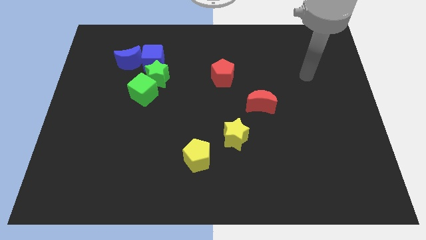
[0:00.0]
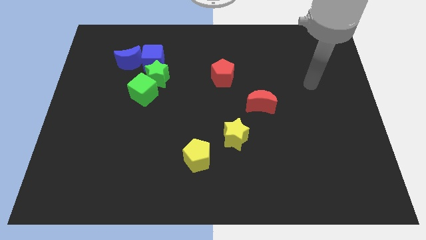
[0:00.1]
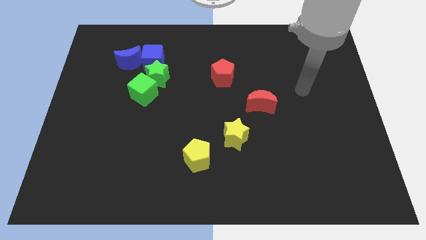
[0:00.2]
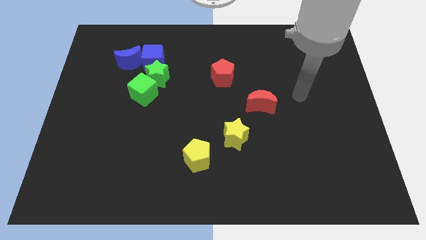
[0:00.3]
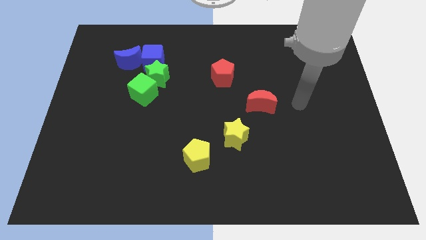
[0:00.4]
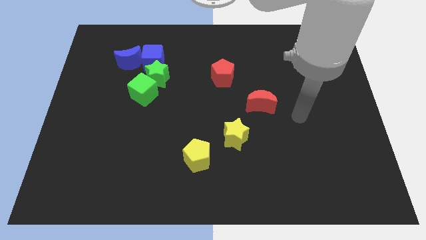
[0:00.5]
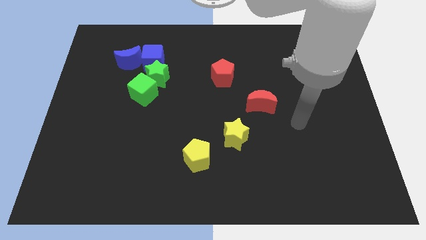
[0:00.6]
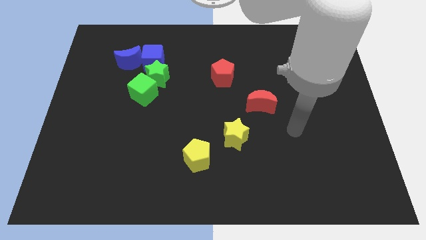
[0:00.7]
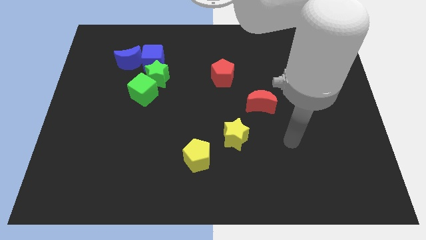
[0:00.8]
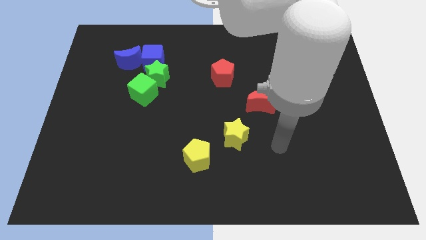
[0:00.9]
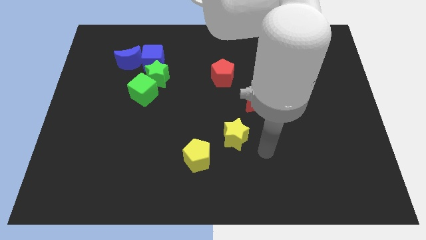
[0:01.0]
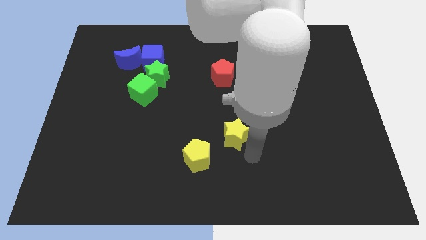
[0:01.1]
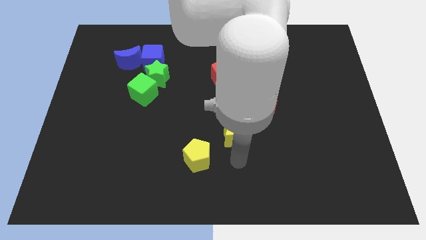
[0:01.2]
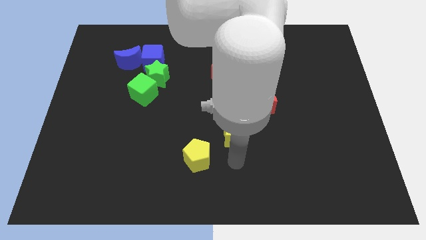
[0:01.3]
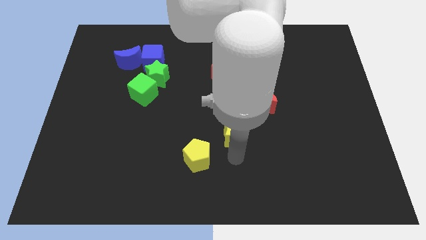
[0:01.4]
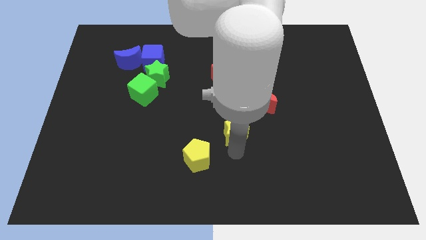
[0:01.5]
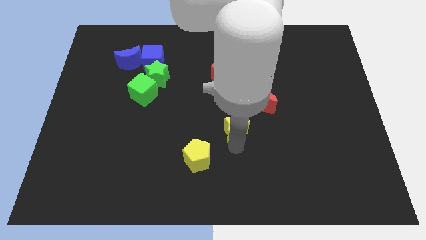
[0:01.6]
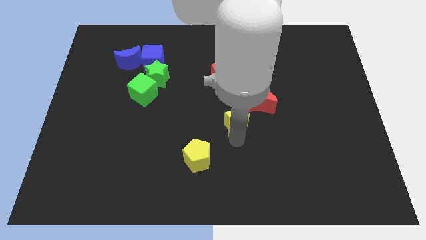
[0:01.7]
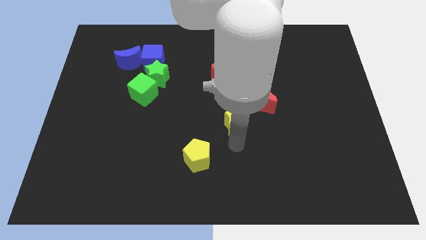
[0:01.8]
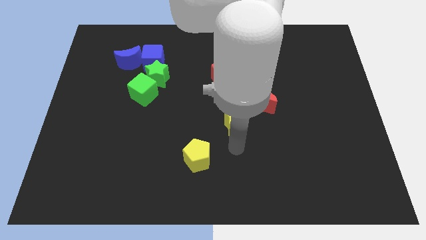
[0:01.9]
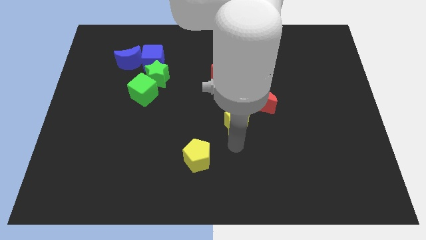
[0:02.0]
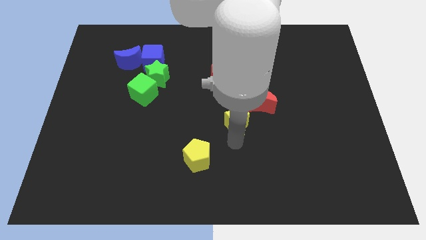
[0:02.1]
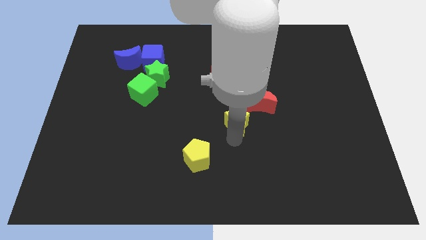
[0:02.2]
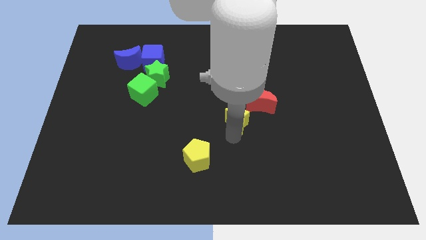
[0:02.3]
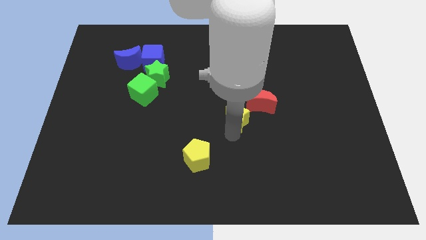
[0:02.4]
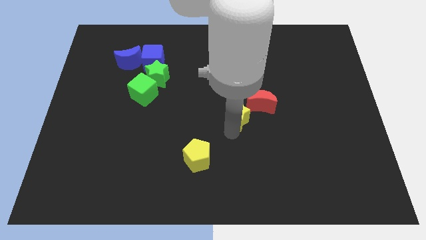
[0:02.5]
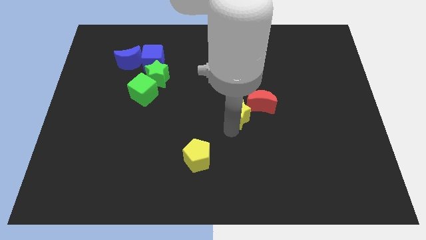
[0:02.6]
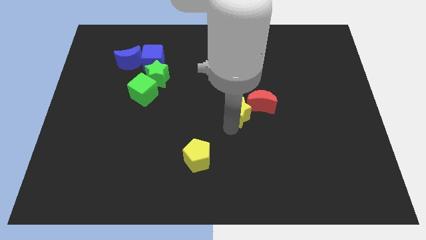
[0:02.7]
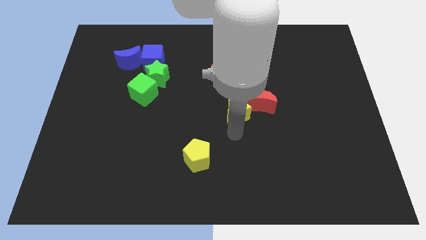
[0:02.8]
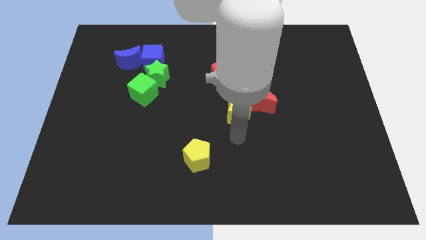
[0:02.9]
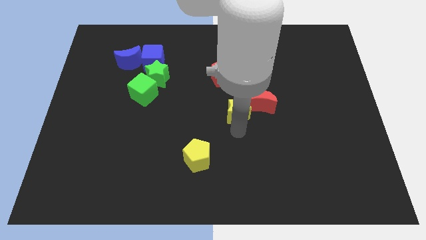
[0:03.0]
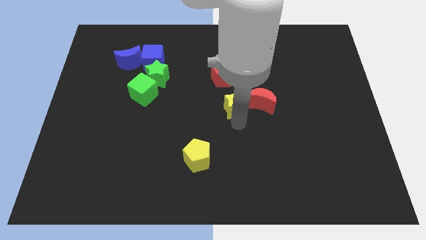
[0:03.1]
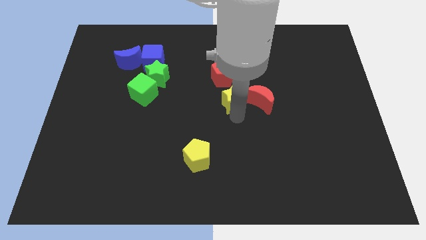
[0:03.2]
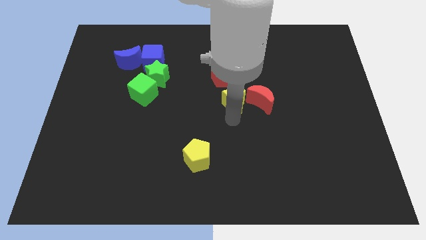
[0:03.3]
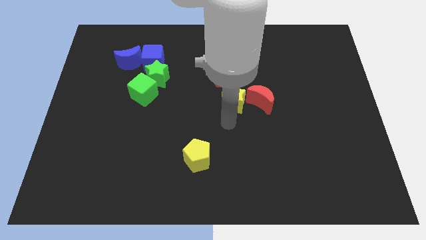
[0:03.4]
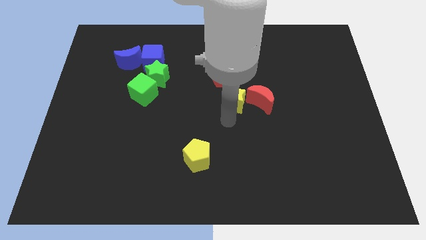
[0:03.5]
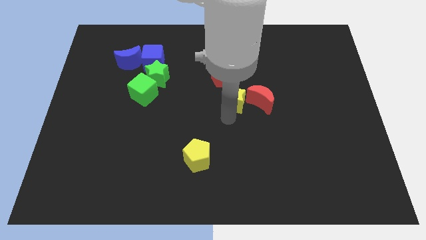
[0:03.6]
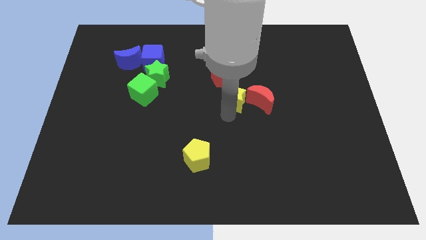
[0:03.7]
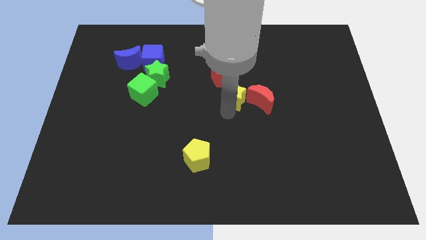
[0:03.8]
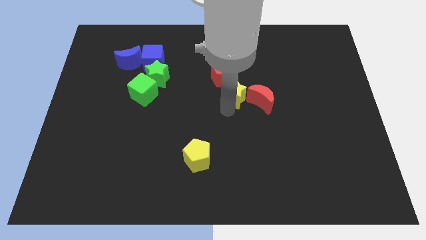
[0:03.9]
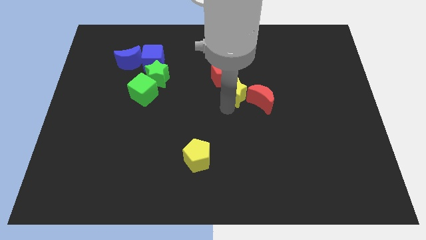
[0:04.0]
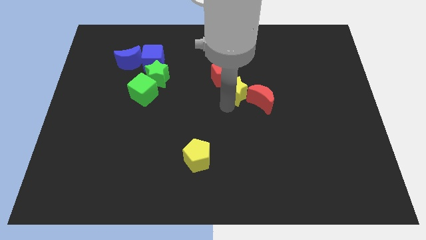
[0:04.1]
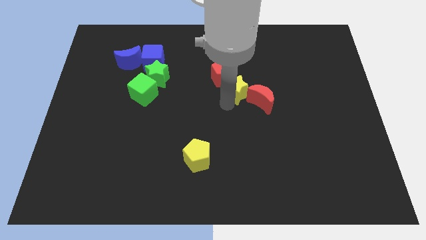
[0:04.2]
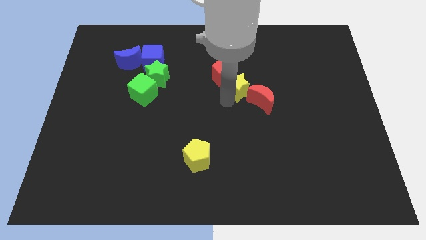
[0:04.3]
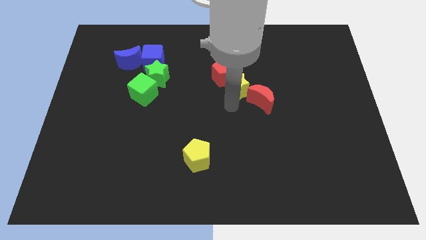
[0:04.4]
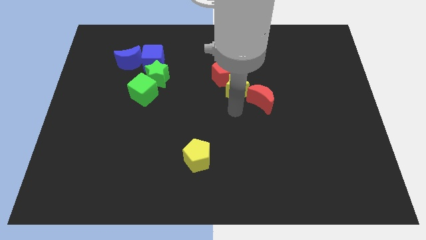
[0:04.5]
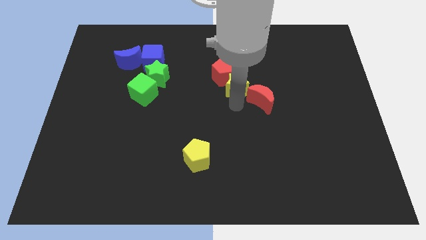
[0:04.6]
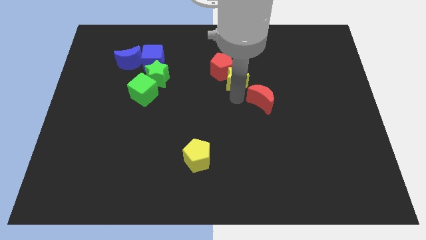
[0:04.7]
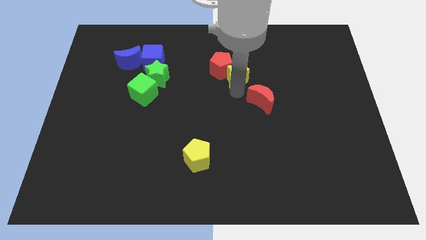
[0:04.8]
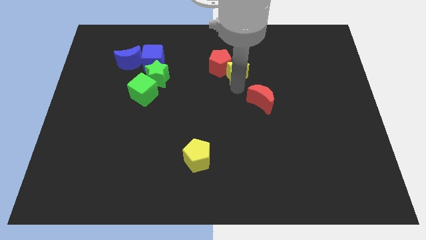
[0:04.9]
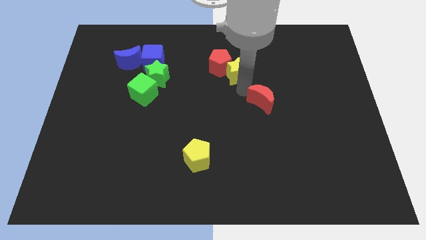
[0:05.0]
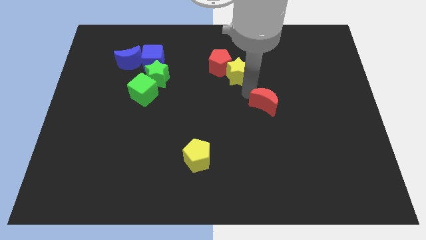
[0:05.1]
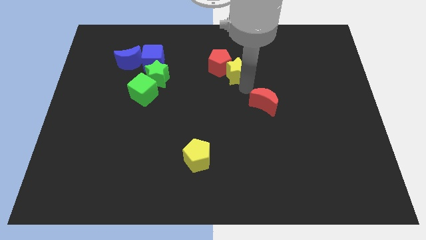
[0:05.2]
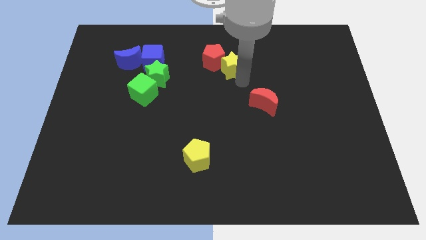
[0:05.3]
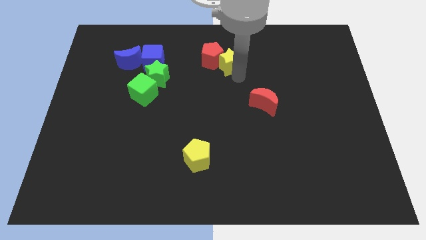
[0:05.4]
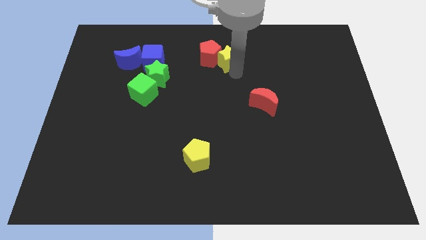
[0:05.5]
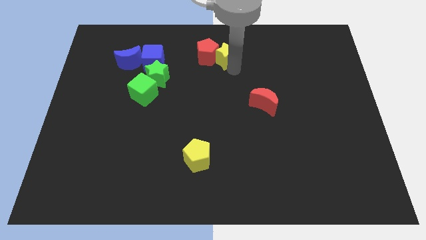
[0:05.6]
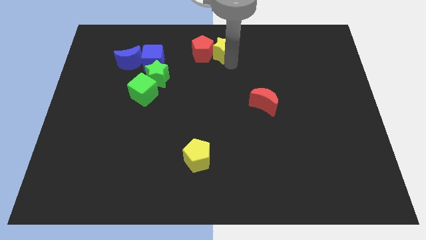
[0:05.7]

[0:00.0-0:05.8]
move the yellow star to the towards your base
